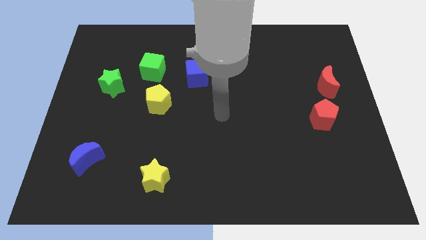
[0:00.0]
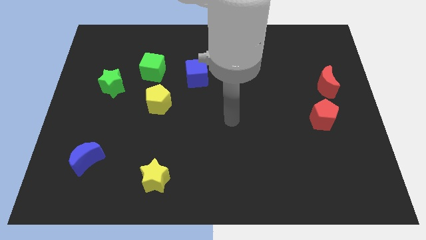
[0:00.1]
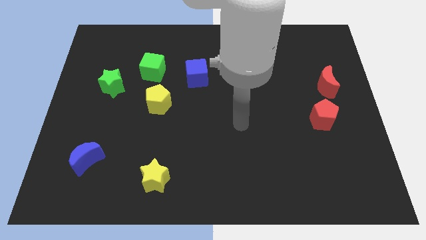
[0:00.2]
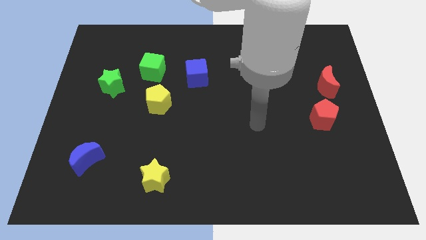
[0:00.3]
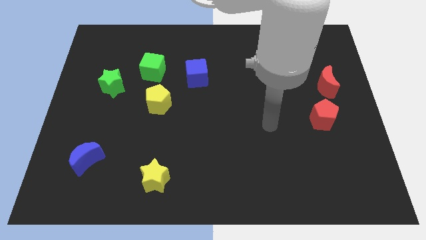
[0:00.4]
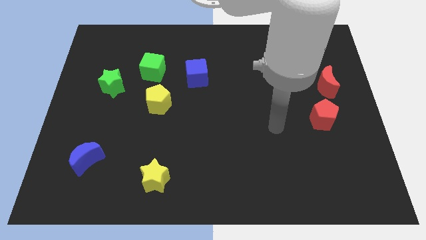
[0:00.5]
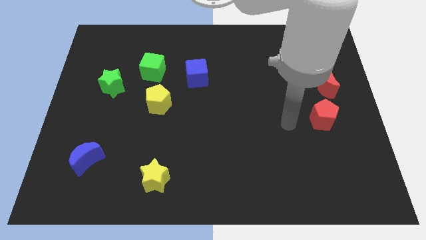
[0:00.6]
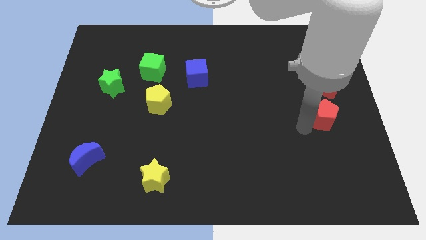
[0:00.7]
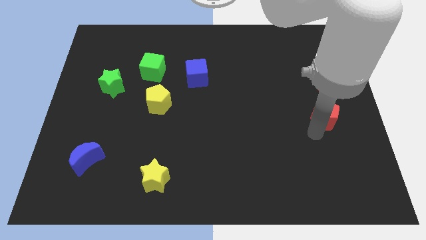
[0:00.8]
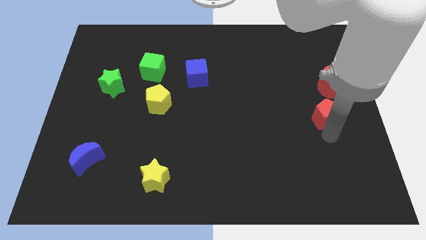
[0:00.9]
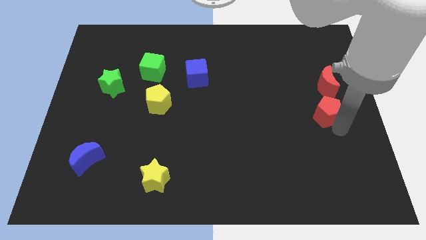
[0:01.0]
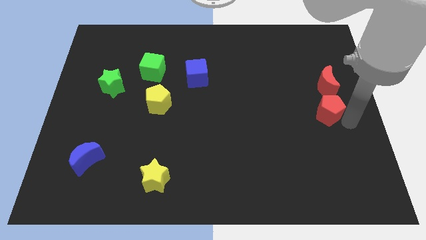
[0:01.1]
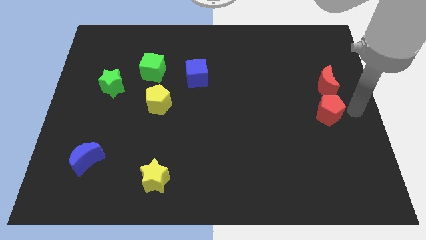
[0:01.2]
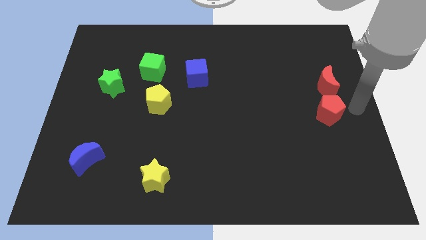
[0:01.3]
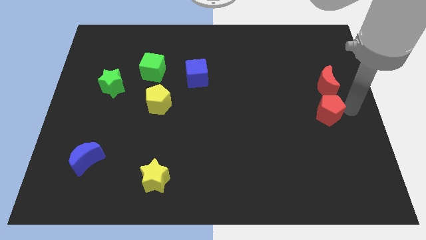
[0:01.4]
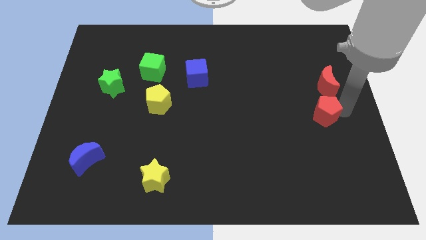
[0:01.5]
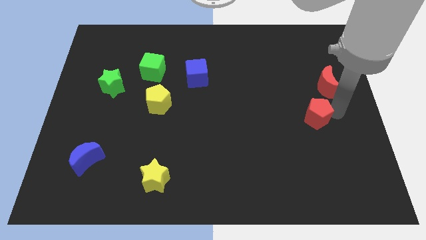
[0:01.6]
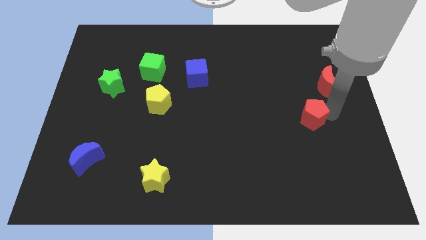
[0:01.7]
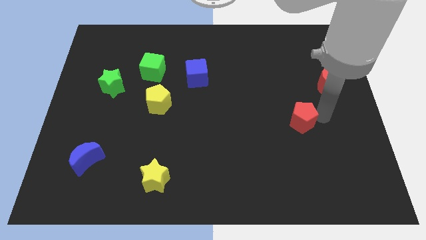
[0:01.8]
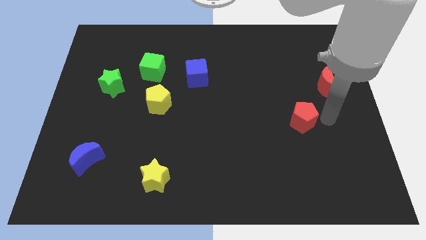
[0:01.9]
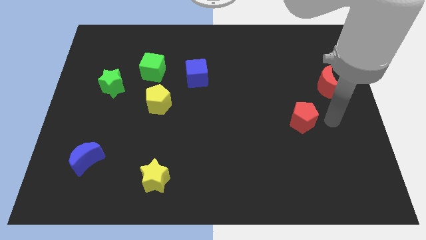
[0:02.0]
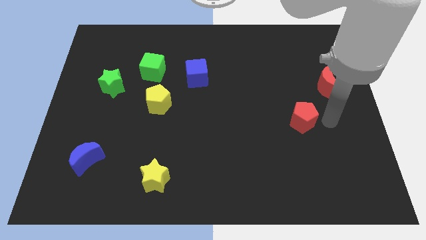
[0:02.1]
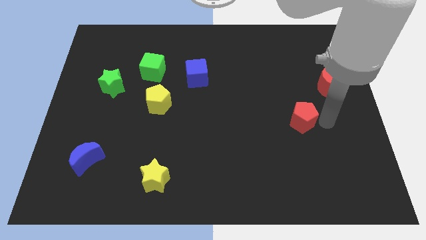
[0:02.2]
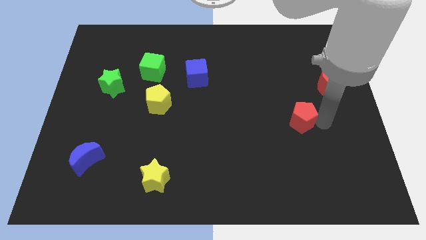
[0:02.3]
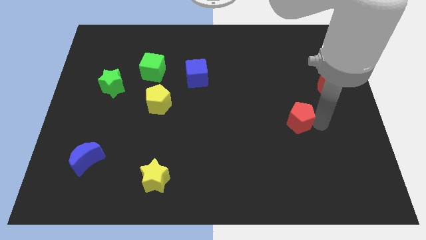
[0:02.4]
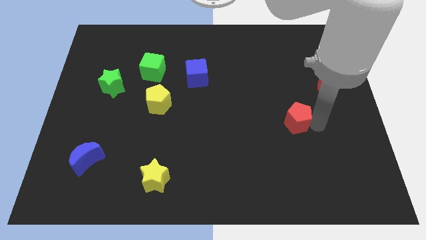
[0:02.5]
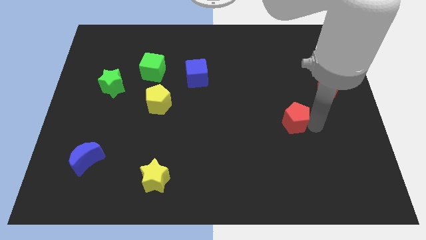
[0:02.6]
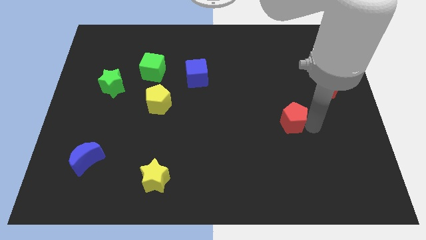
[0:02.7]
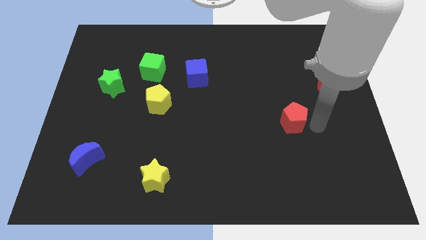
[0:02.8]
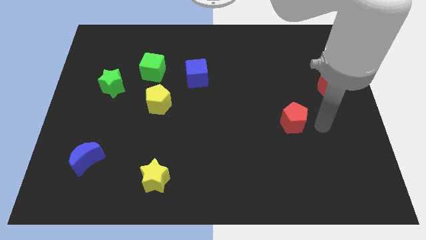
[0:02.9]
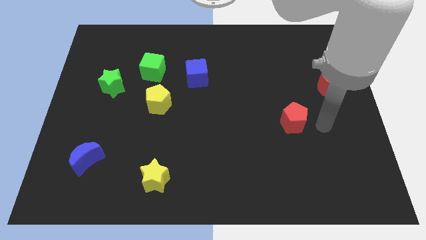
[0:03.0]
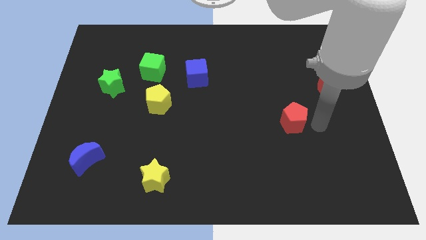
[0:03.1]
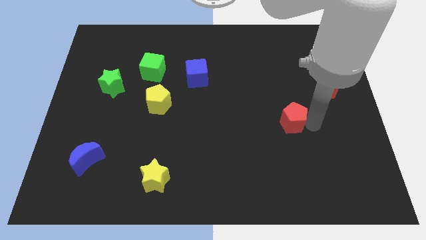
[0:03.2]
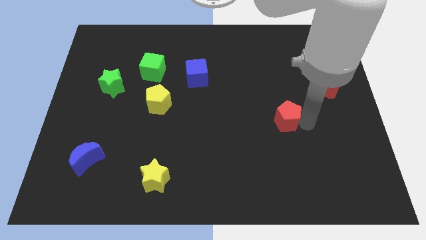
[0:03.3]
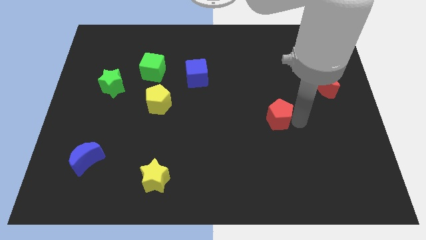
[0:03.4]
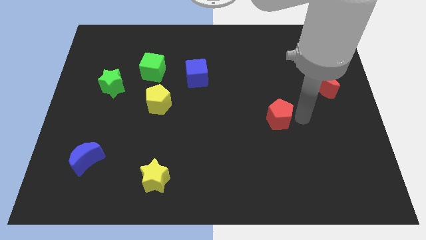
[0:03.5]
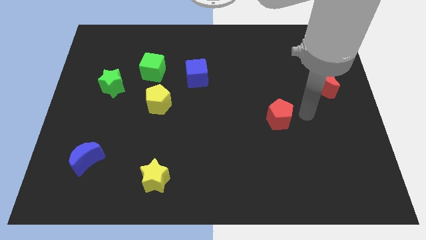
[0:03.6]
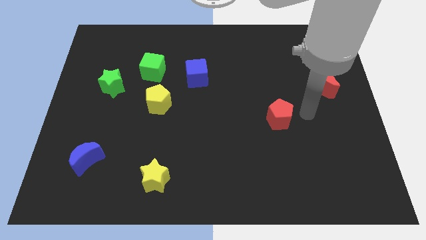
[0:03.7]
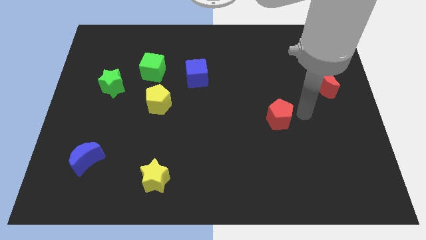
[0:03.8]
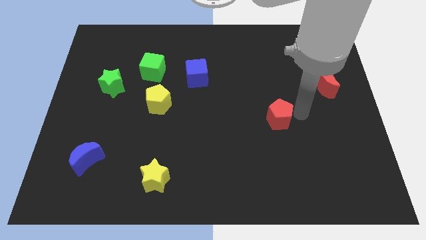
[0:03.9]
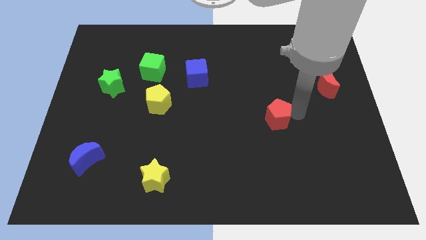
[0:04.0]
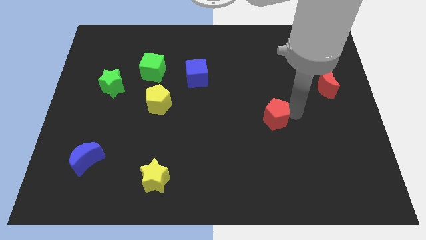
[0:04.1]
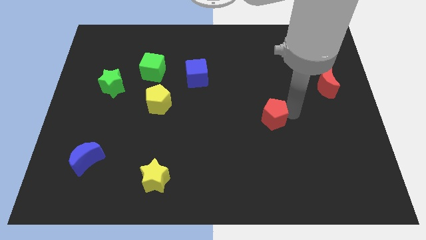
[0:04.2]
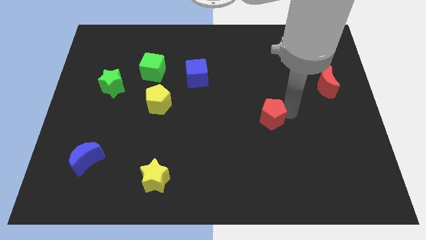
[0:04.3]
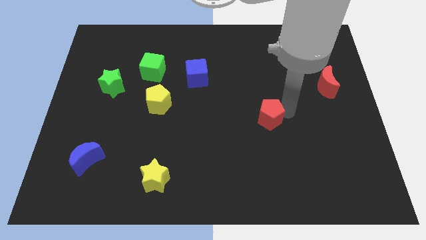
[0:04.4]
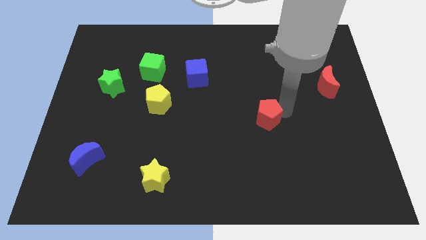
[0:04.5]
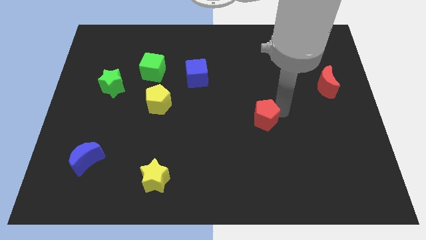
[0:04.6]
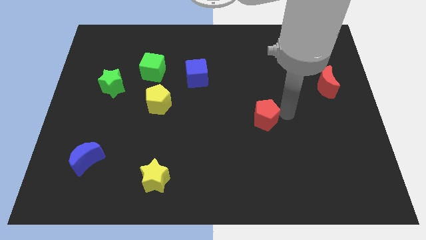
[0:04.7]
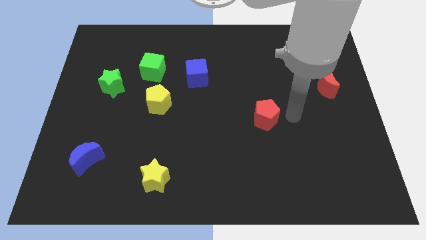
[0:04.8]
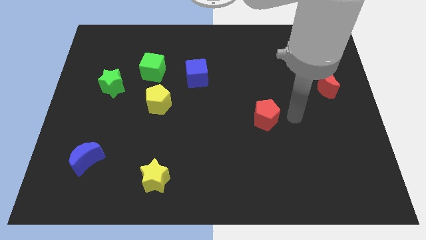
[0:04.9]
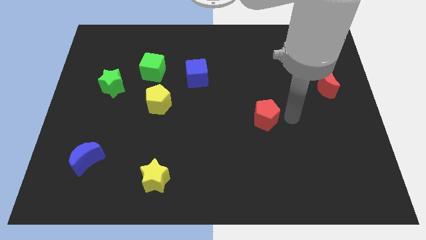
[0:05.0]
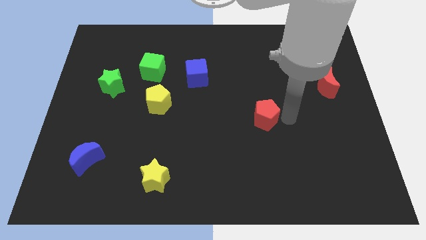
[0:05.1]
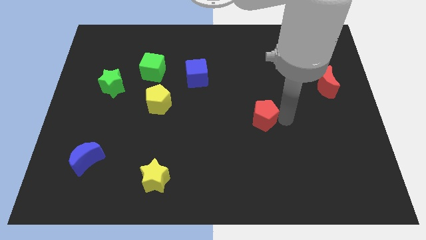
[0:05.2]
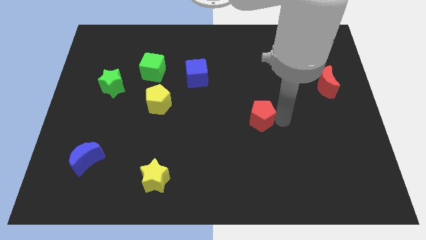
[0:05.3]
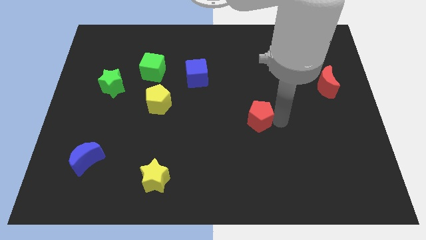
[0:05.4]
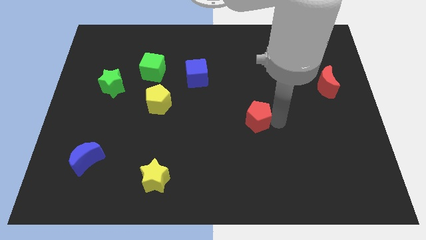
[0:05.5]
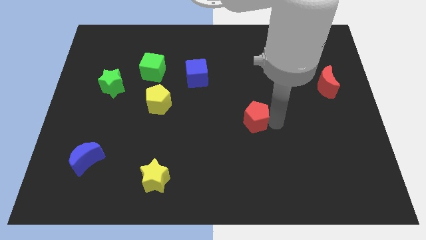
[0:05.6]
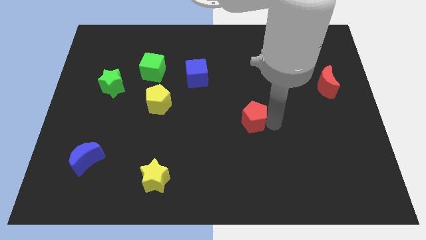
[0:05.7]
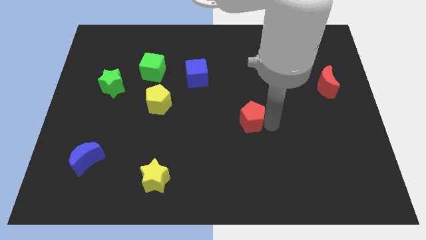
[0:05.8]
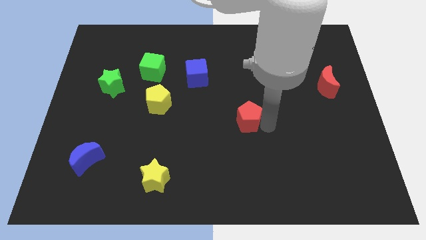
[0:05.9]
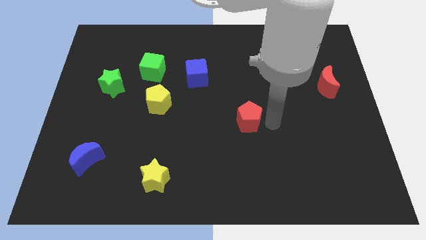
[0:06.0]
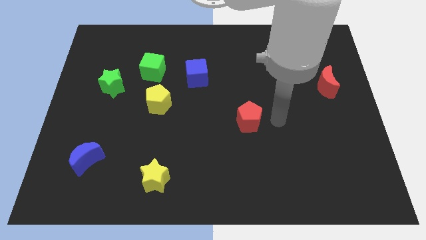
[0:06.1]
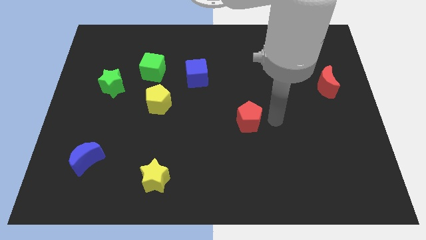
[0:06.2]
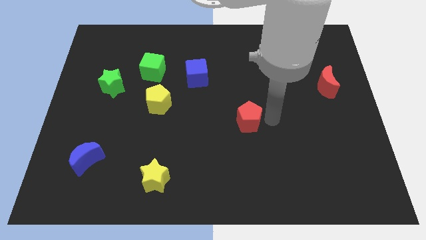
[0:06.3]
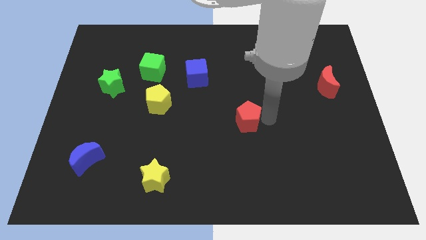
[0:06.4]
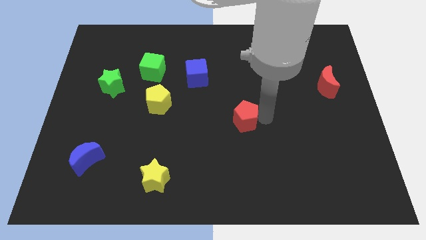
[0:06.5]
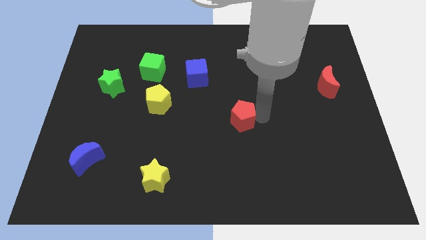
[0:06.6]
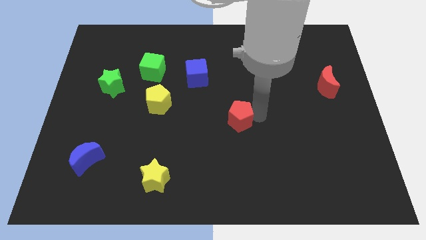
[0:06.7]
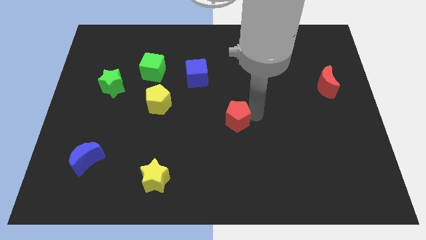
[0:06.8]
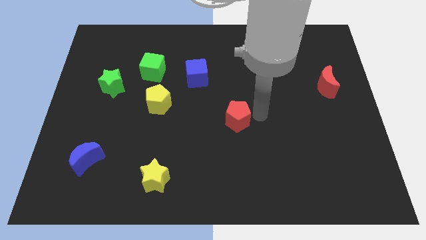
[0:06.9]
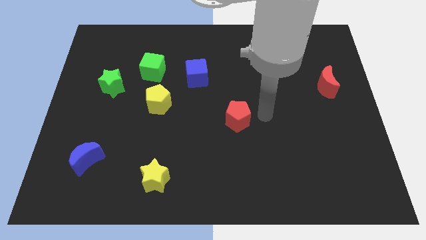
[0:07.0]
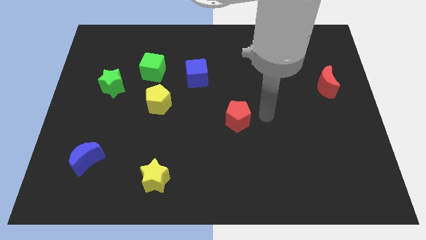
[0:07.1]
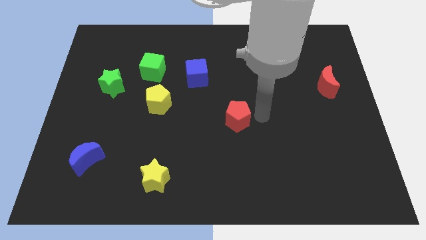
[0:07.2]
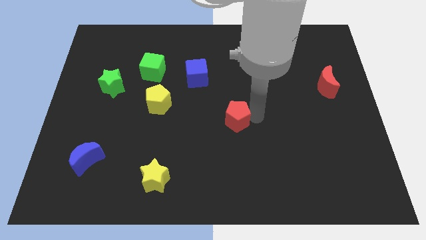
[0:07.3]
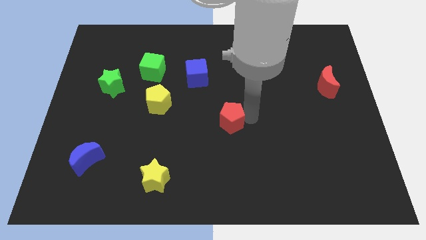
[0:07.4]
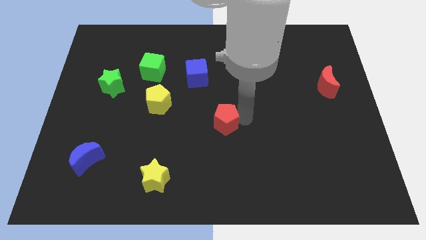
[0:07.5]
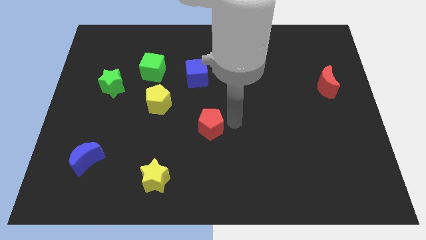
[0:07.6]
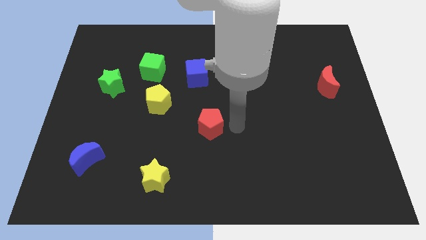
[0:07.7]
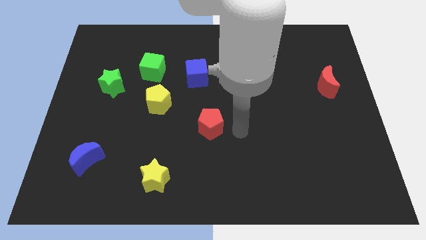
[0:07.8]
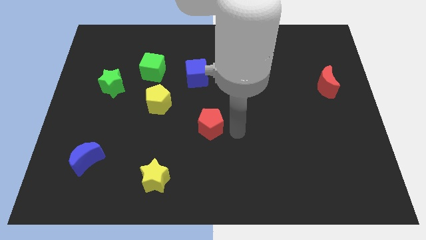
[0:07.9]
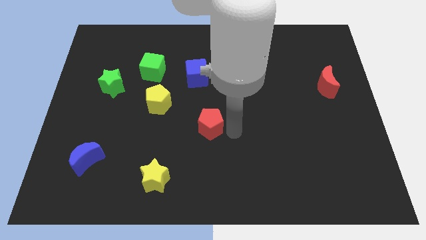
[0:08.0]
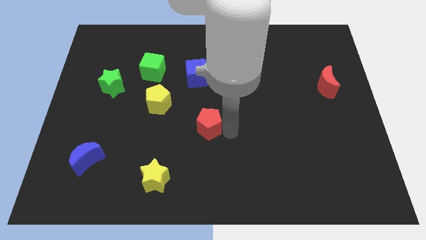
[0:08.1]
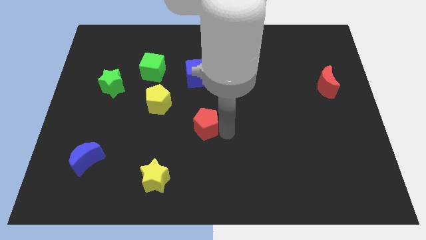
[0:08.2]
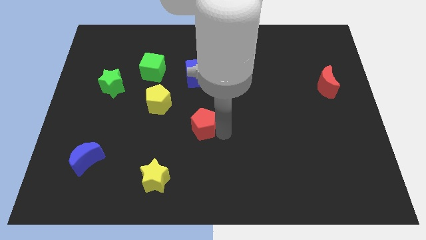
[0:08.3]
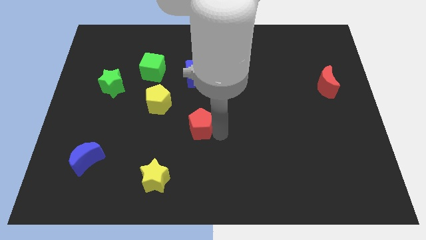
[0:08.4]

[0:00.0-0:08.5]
push the red pentagon to the bottom right side of the yellow pentagon
